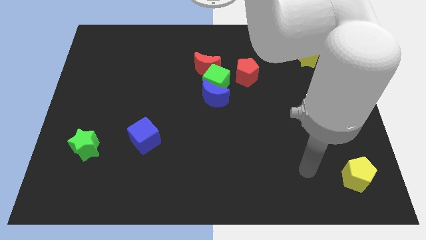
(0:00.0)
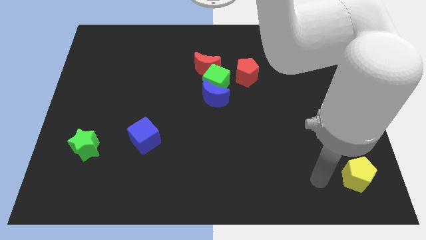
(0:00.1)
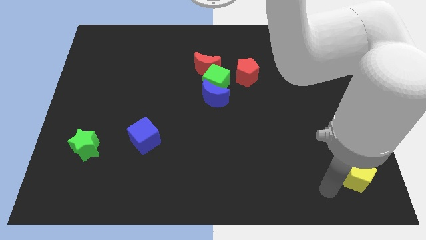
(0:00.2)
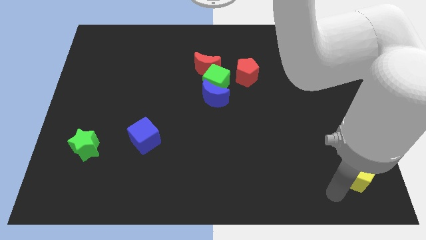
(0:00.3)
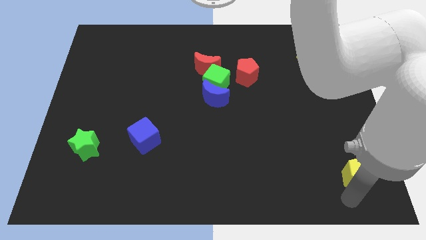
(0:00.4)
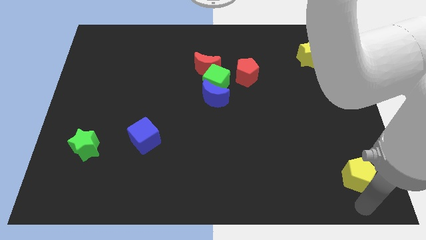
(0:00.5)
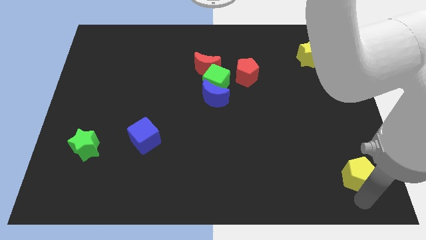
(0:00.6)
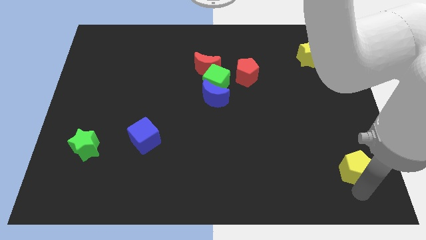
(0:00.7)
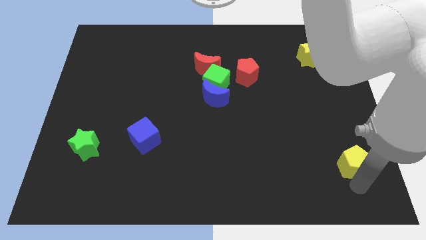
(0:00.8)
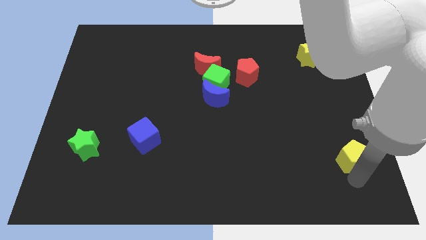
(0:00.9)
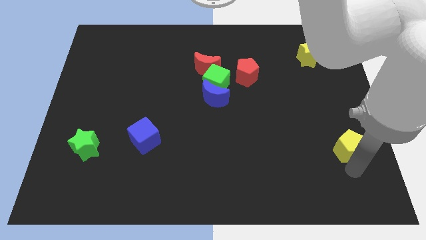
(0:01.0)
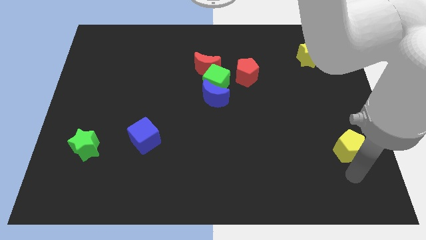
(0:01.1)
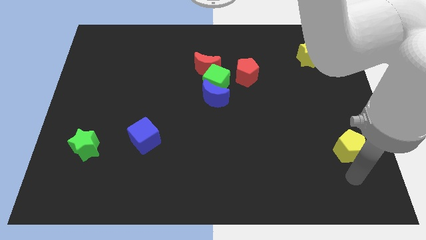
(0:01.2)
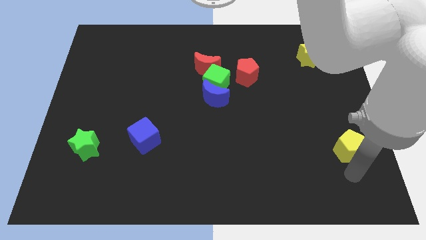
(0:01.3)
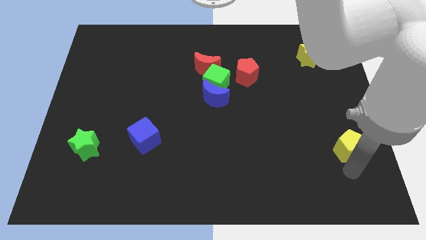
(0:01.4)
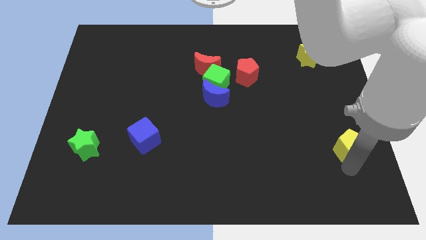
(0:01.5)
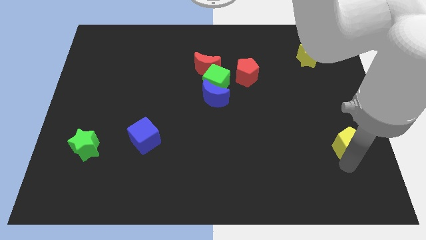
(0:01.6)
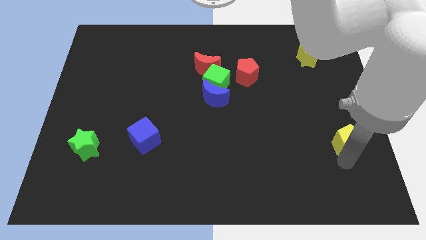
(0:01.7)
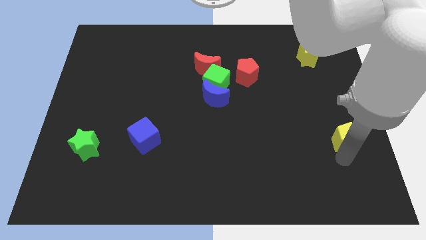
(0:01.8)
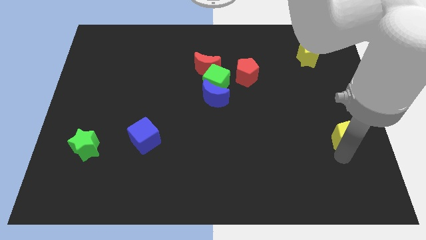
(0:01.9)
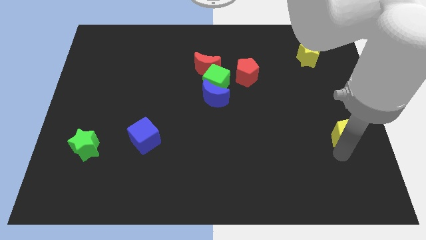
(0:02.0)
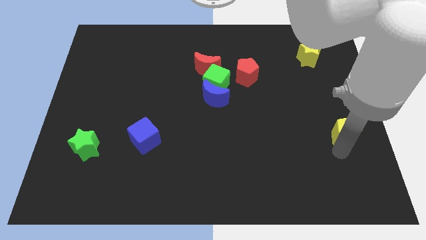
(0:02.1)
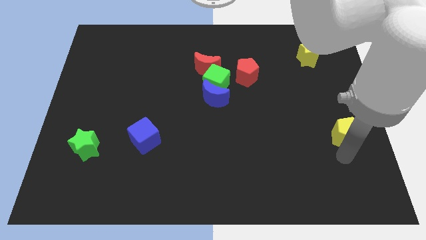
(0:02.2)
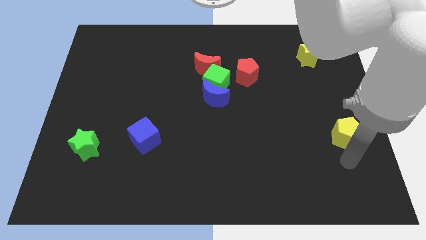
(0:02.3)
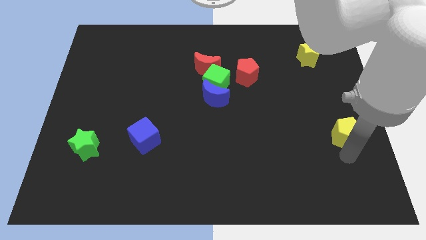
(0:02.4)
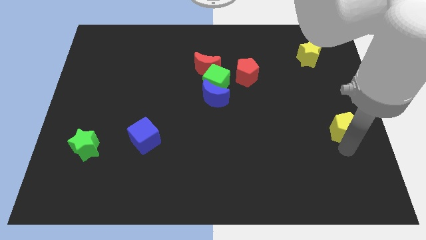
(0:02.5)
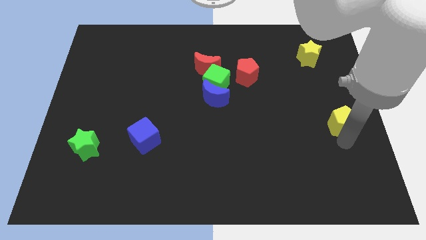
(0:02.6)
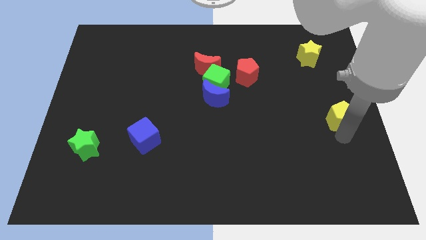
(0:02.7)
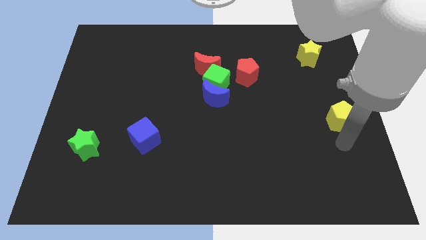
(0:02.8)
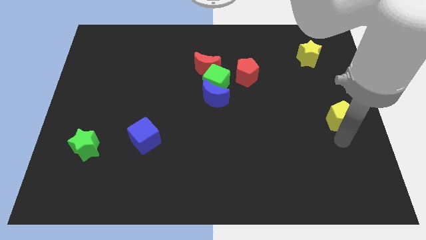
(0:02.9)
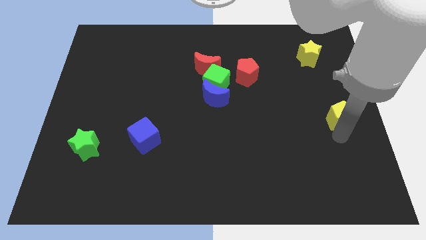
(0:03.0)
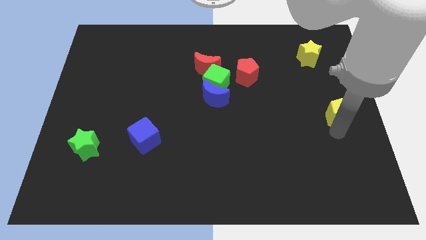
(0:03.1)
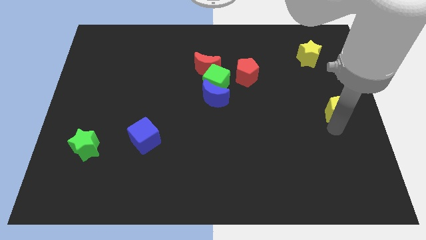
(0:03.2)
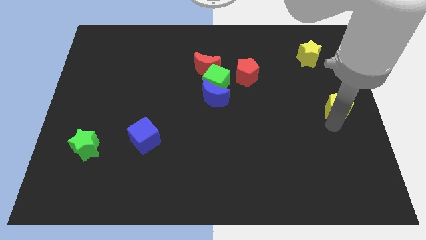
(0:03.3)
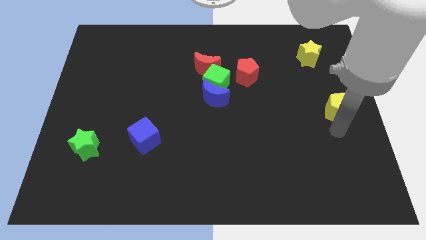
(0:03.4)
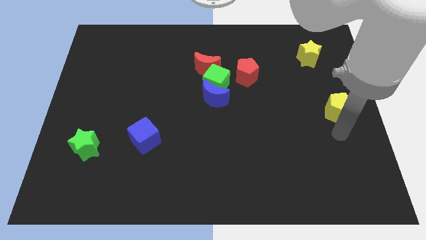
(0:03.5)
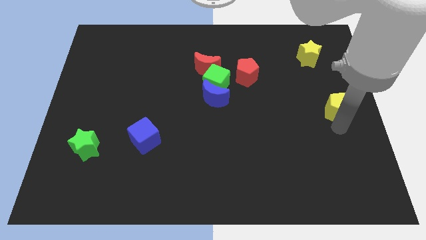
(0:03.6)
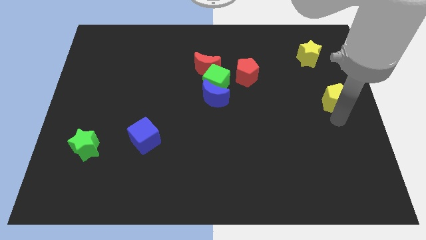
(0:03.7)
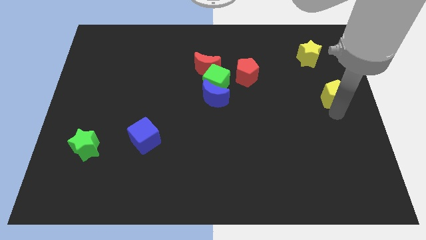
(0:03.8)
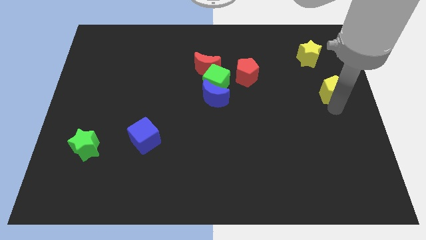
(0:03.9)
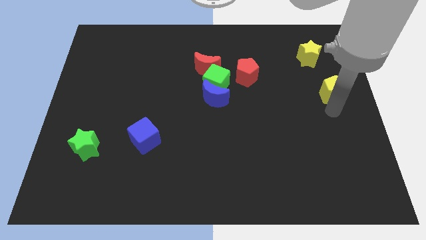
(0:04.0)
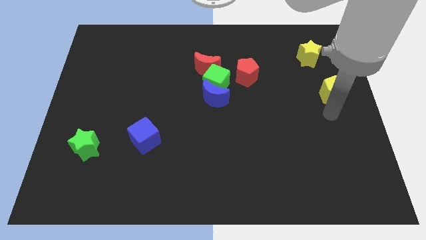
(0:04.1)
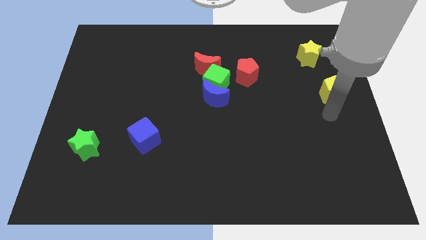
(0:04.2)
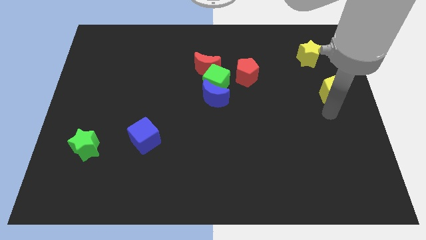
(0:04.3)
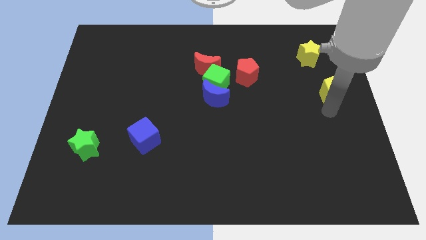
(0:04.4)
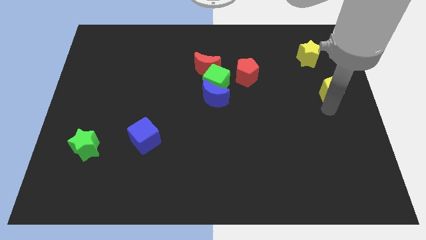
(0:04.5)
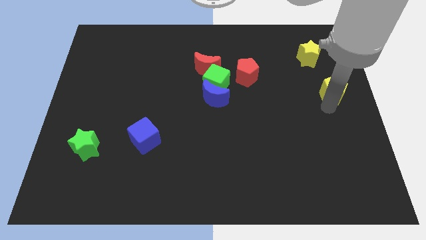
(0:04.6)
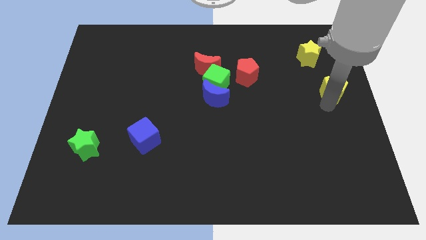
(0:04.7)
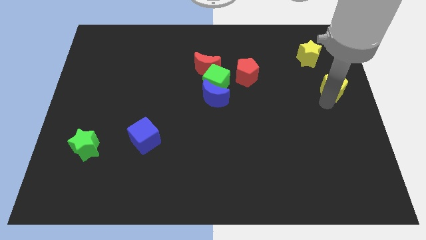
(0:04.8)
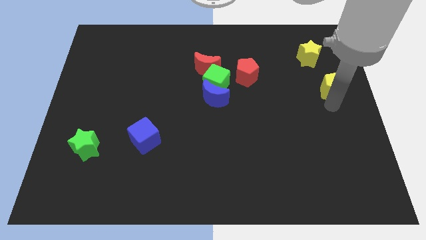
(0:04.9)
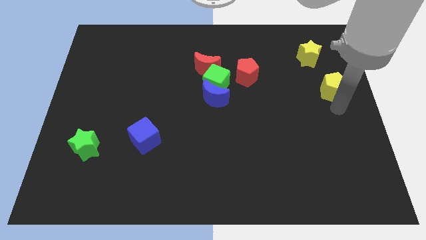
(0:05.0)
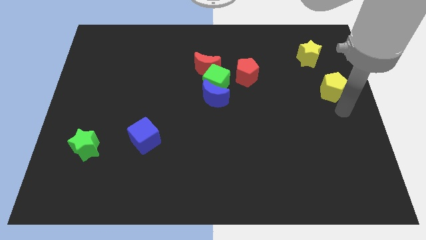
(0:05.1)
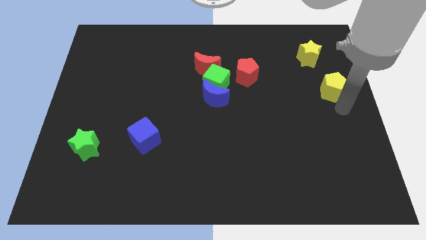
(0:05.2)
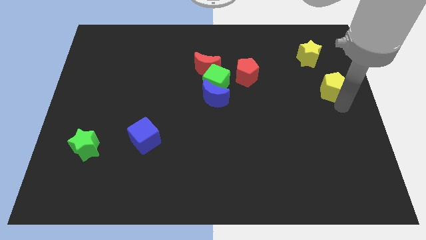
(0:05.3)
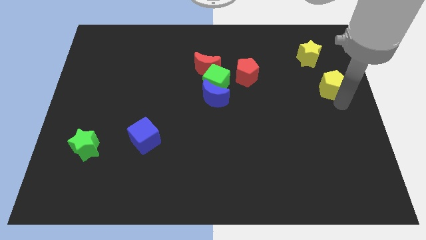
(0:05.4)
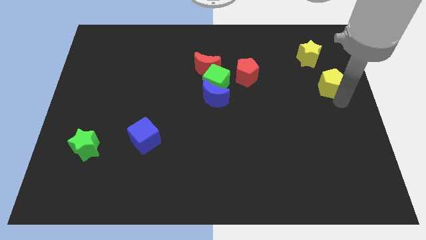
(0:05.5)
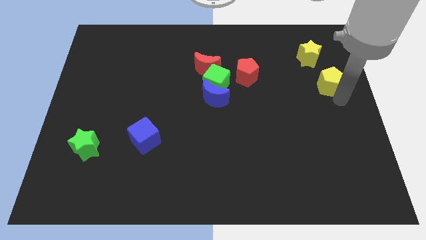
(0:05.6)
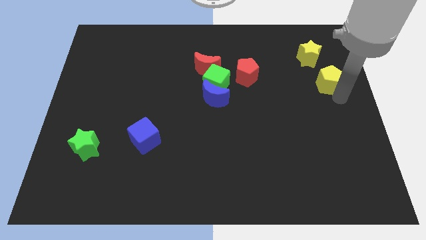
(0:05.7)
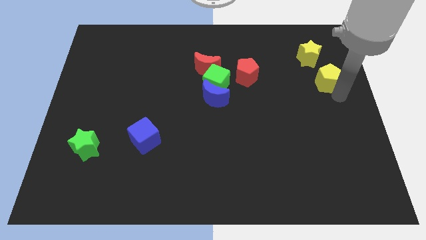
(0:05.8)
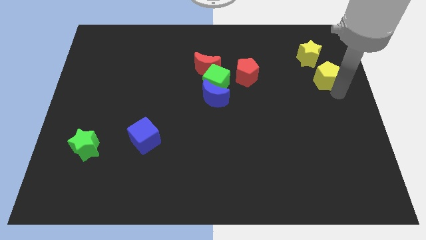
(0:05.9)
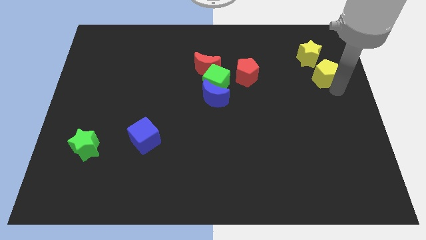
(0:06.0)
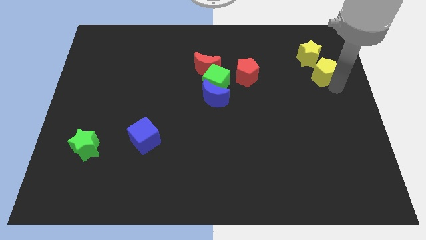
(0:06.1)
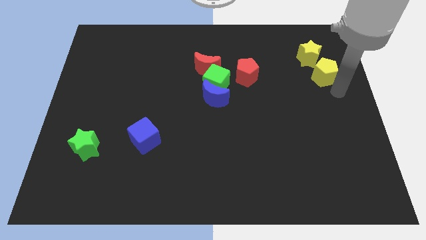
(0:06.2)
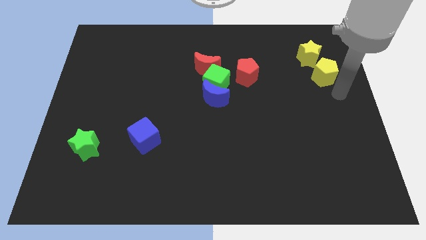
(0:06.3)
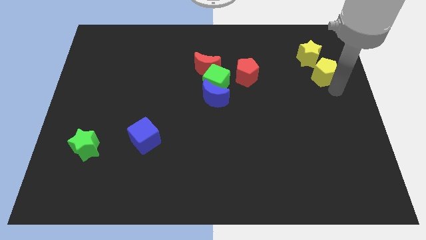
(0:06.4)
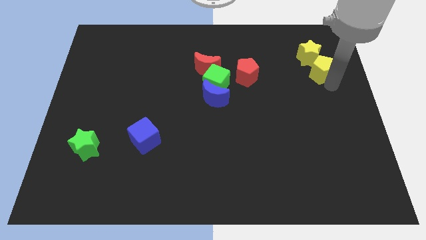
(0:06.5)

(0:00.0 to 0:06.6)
put the yellow pentagon to the yellow star

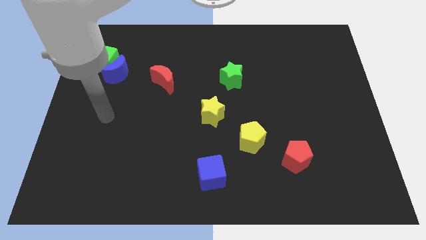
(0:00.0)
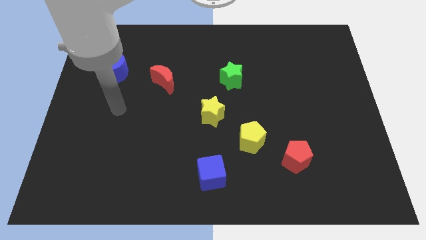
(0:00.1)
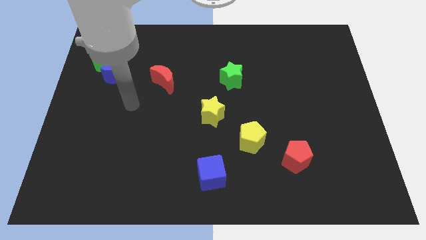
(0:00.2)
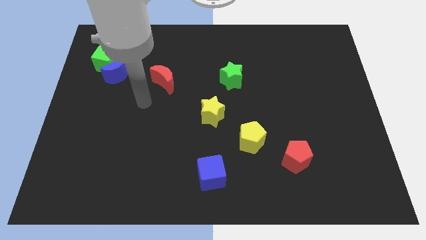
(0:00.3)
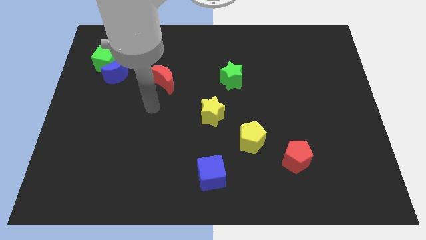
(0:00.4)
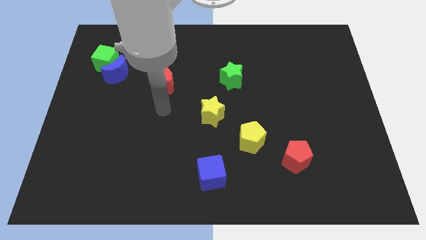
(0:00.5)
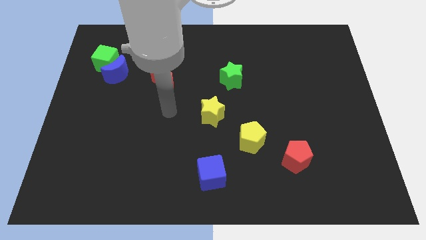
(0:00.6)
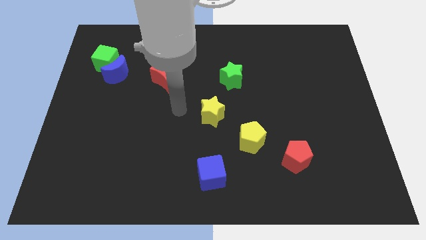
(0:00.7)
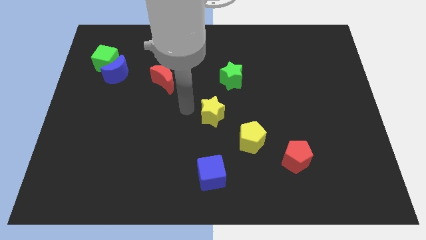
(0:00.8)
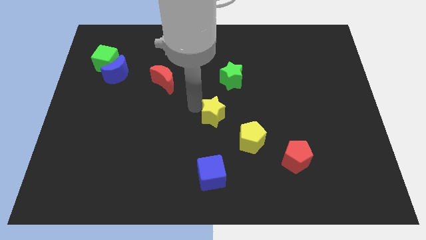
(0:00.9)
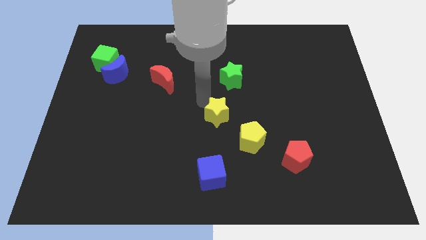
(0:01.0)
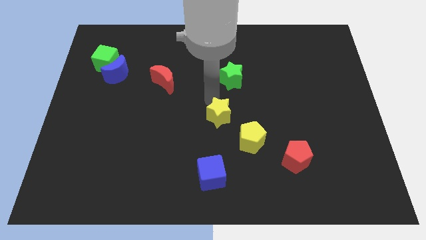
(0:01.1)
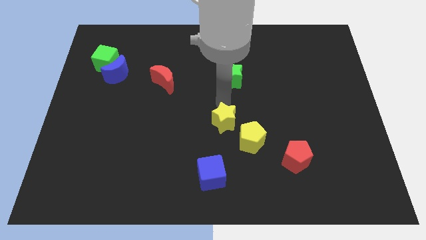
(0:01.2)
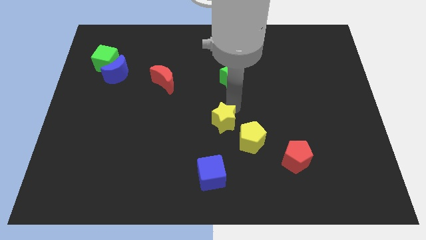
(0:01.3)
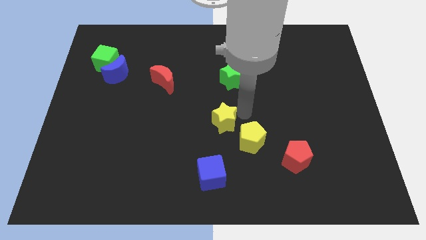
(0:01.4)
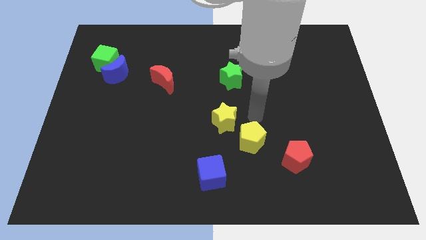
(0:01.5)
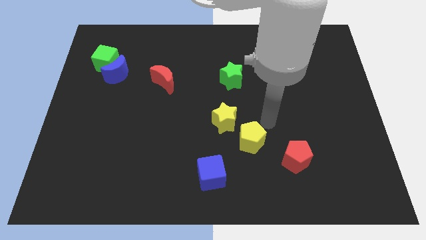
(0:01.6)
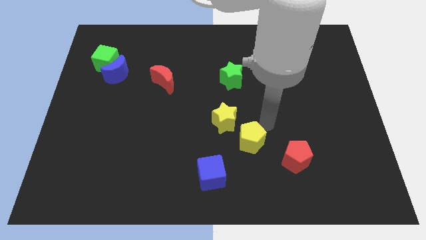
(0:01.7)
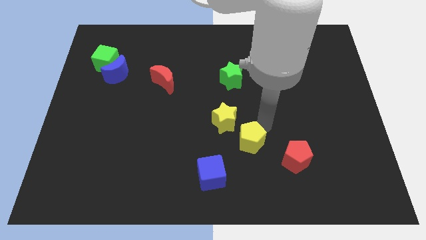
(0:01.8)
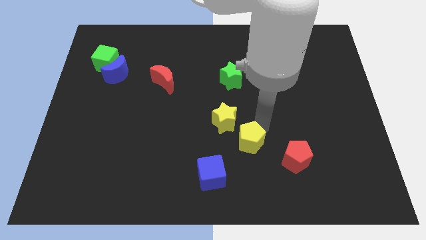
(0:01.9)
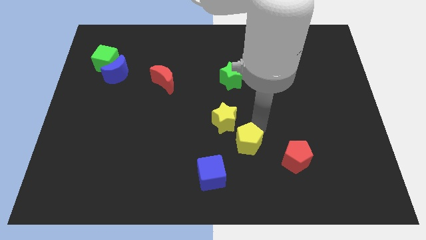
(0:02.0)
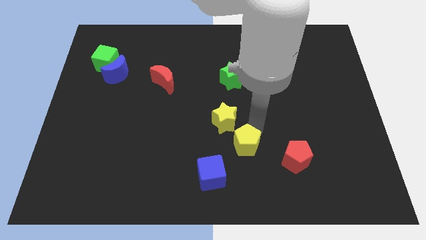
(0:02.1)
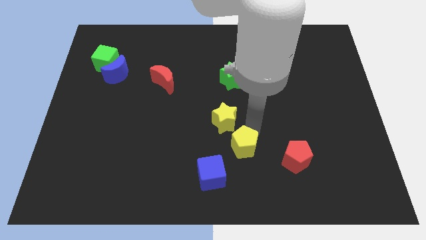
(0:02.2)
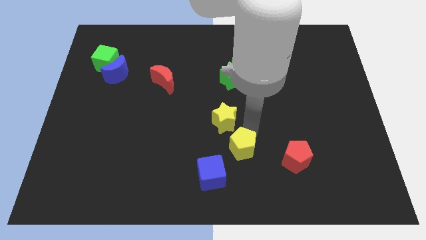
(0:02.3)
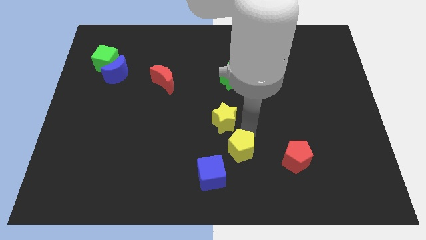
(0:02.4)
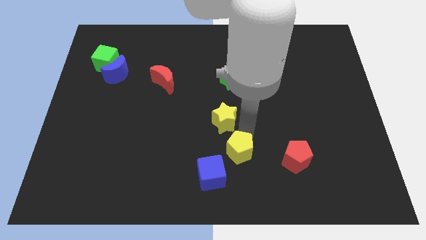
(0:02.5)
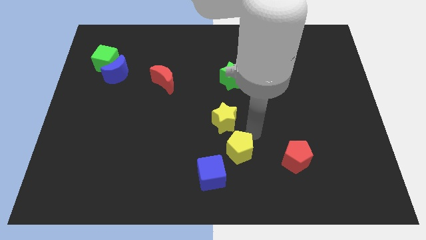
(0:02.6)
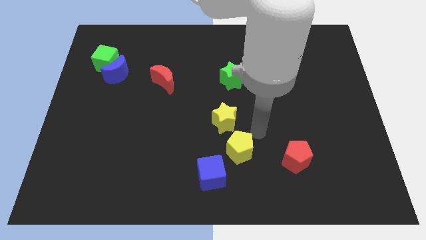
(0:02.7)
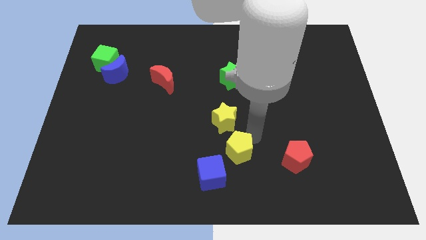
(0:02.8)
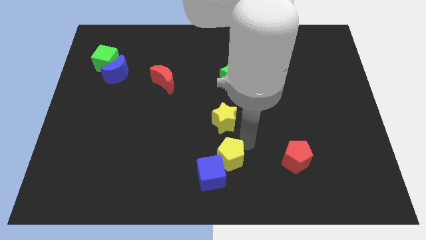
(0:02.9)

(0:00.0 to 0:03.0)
move the yellow pentagon to the blue cube
